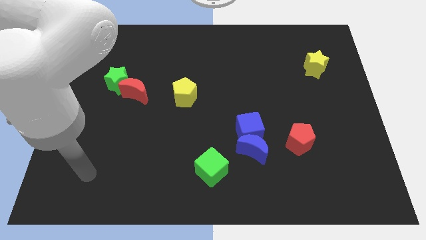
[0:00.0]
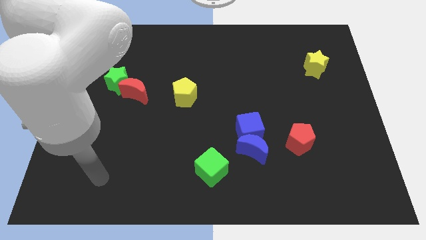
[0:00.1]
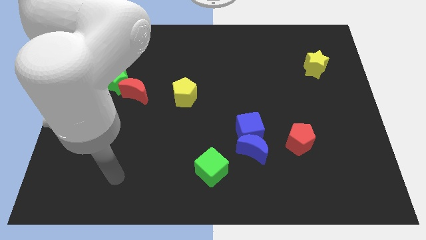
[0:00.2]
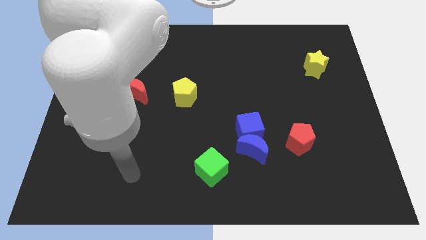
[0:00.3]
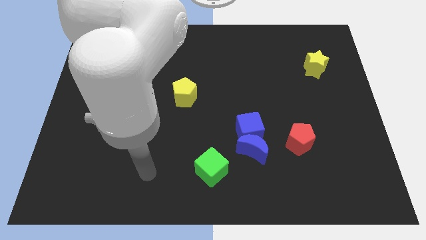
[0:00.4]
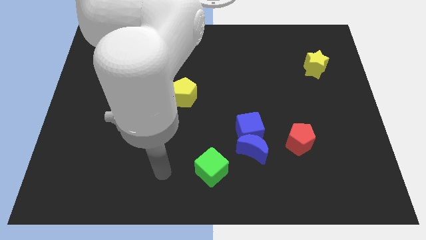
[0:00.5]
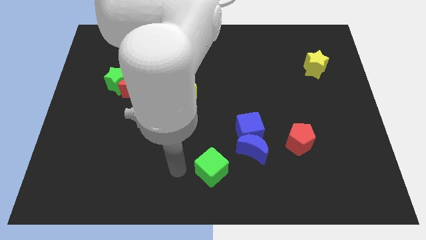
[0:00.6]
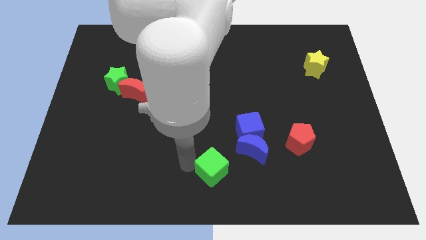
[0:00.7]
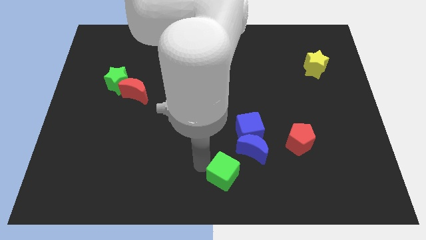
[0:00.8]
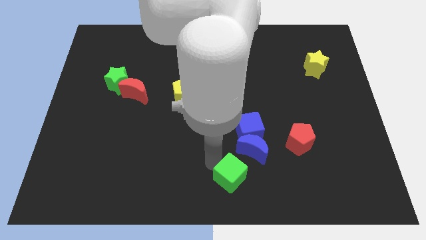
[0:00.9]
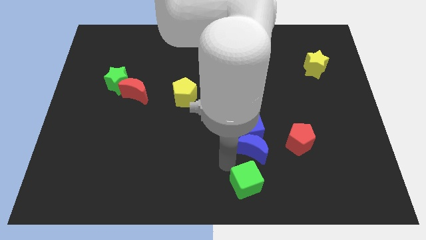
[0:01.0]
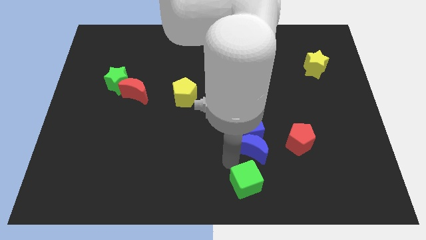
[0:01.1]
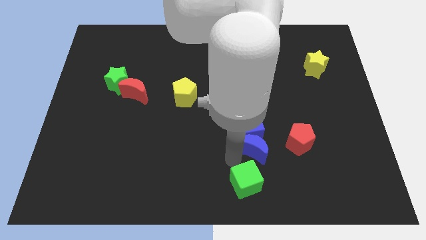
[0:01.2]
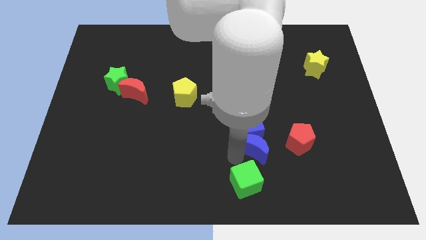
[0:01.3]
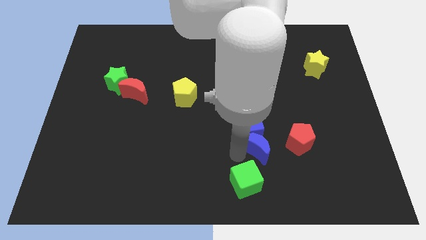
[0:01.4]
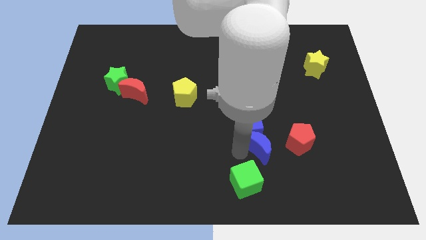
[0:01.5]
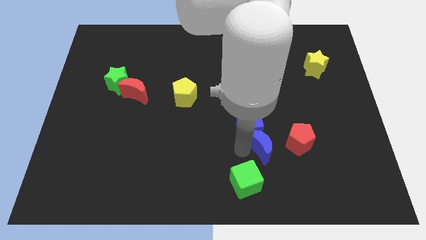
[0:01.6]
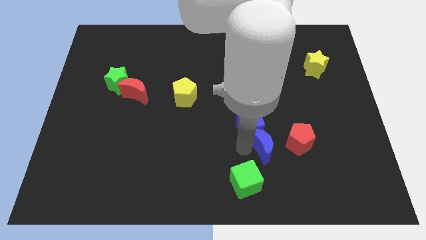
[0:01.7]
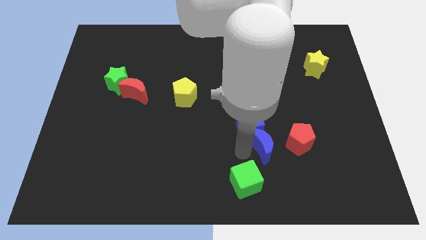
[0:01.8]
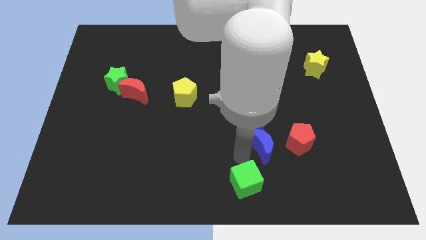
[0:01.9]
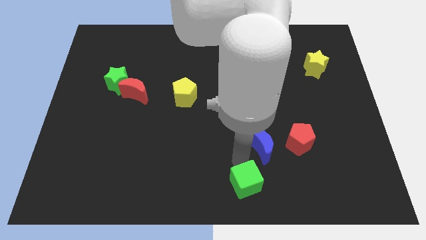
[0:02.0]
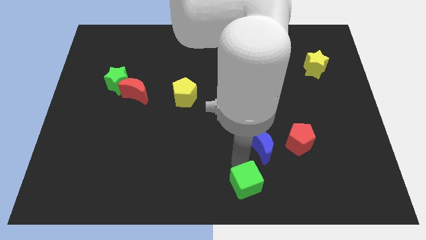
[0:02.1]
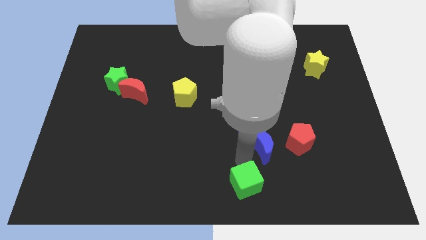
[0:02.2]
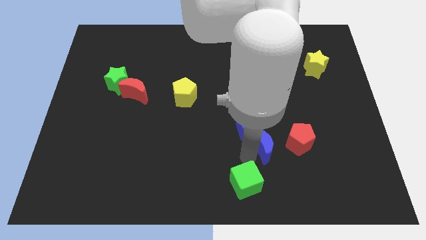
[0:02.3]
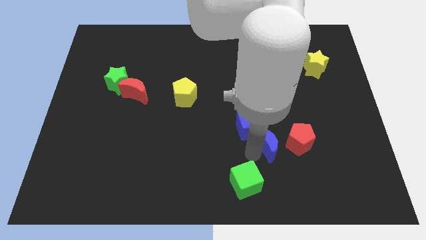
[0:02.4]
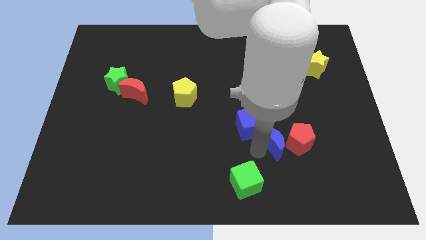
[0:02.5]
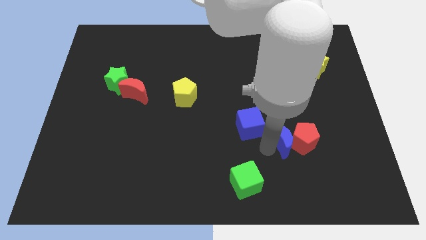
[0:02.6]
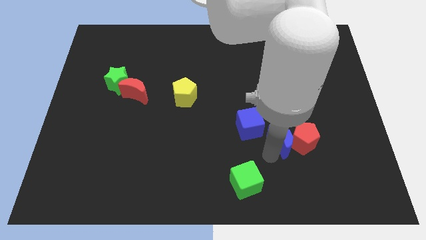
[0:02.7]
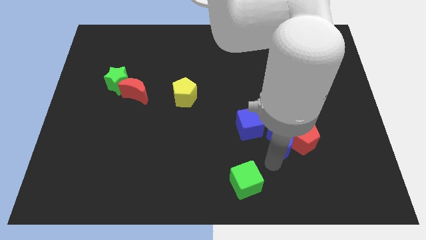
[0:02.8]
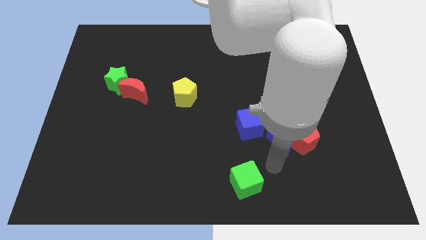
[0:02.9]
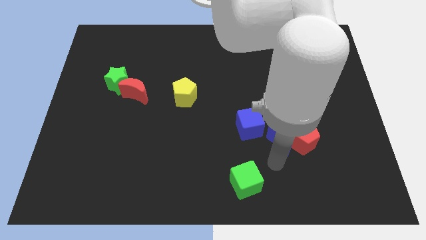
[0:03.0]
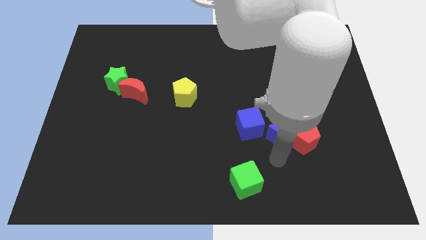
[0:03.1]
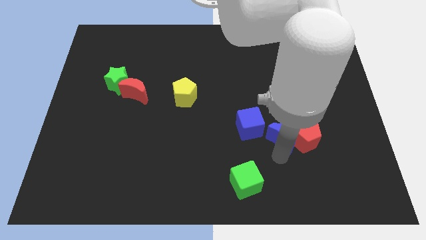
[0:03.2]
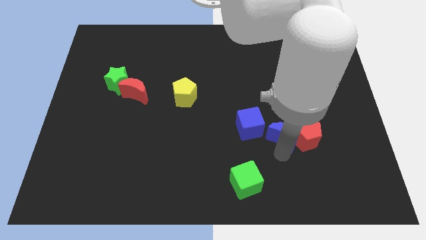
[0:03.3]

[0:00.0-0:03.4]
push the blue moon a little bit upwards and then right

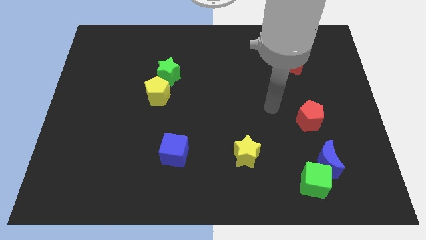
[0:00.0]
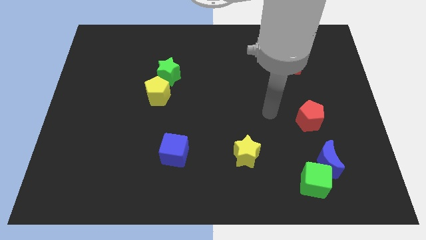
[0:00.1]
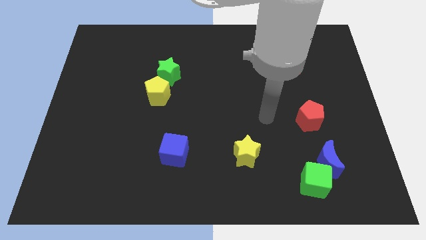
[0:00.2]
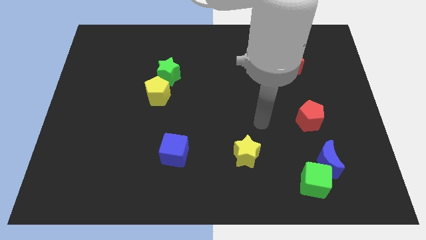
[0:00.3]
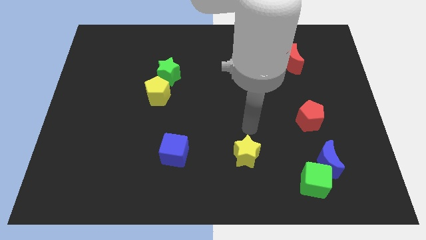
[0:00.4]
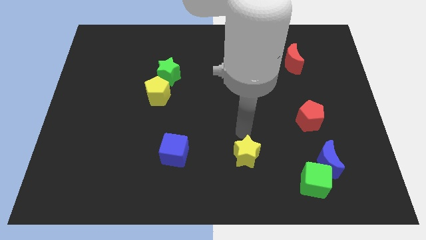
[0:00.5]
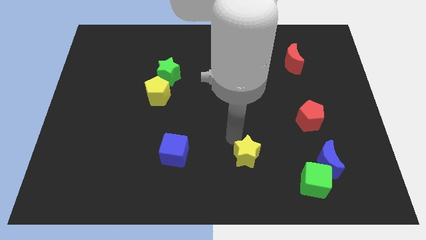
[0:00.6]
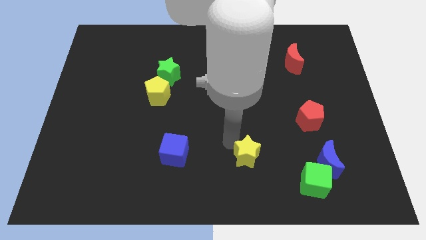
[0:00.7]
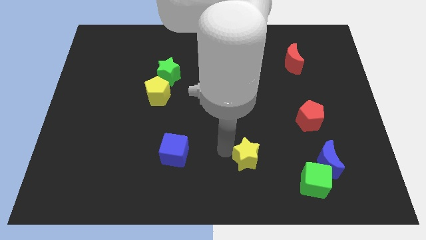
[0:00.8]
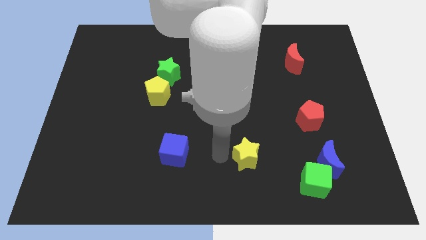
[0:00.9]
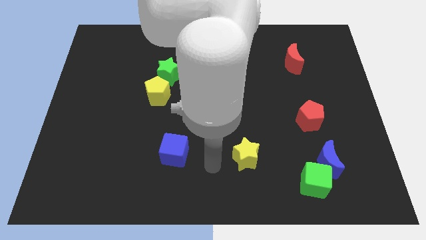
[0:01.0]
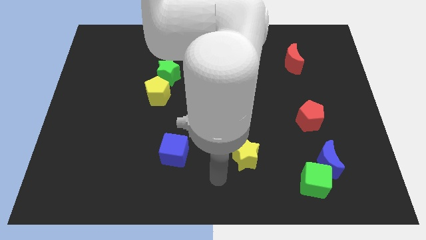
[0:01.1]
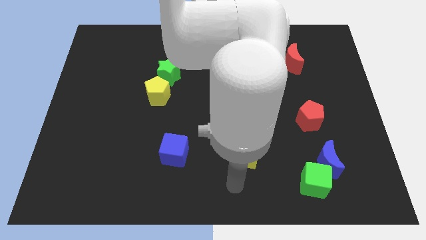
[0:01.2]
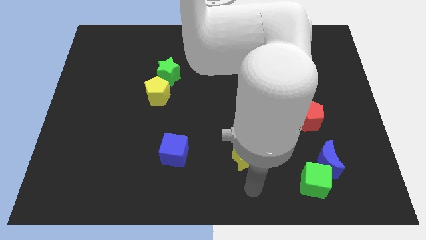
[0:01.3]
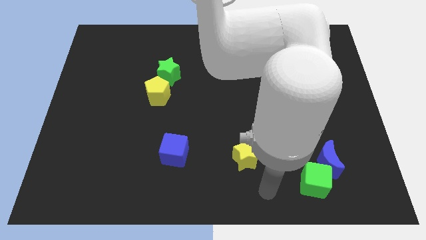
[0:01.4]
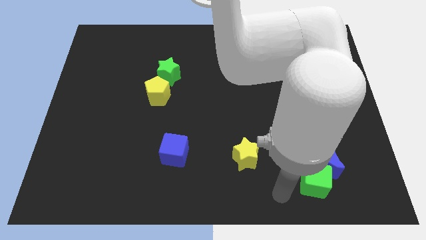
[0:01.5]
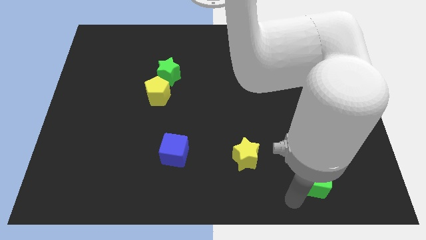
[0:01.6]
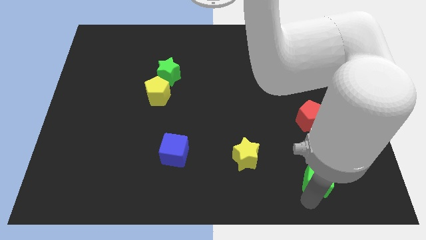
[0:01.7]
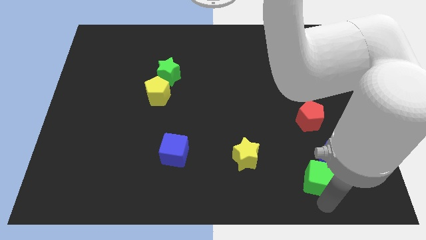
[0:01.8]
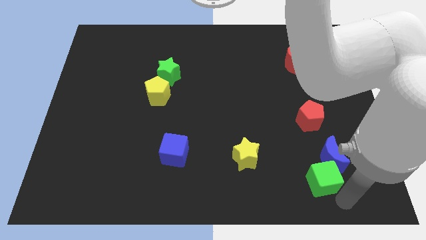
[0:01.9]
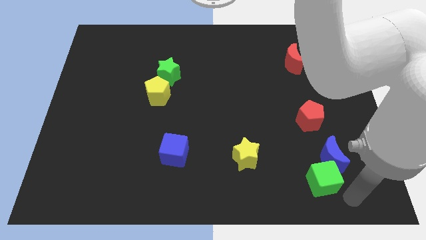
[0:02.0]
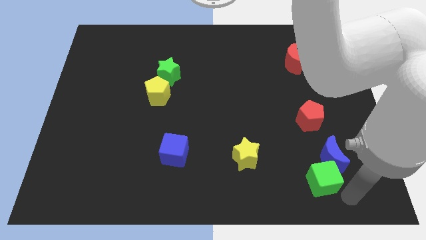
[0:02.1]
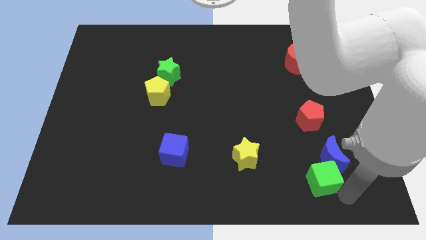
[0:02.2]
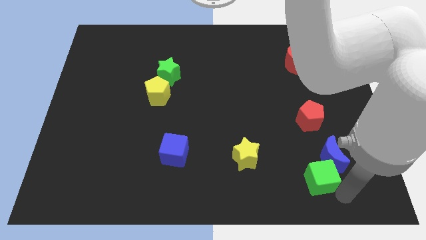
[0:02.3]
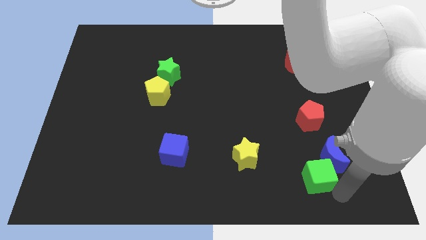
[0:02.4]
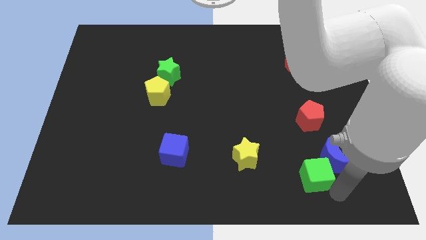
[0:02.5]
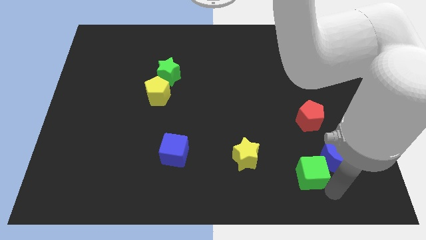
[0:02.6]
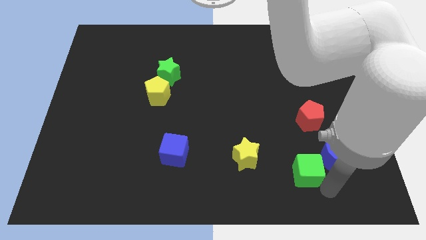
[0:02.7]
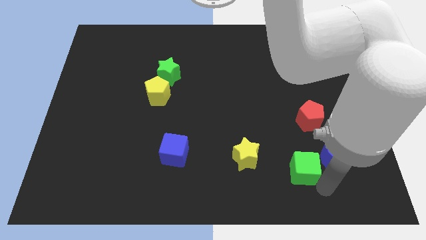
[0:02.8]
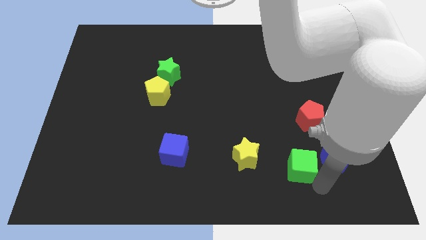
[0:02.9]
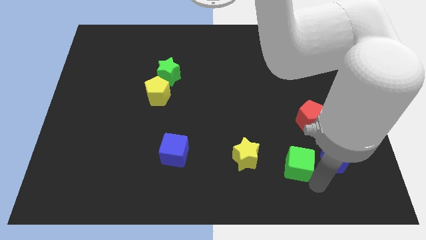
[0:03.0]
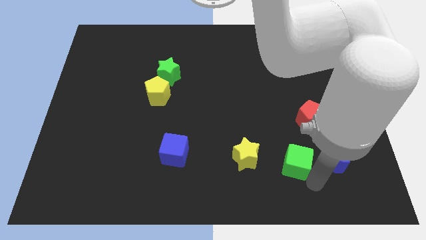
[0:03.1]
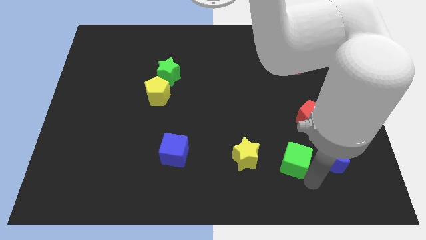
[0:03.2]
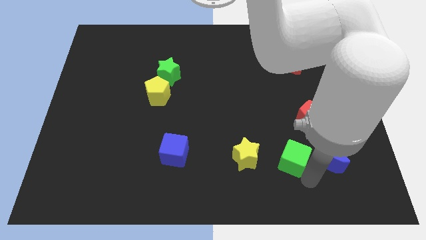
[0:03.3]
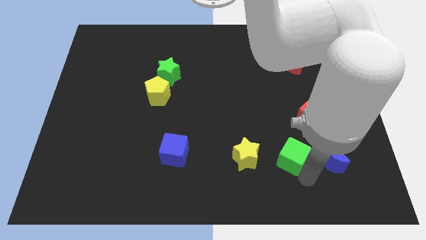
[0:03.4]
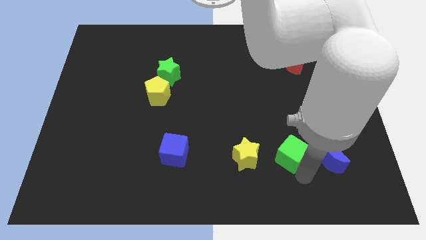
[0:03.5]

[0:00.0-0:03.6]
slightly move the green cube up and then left

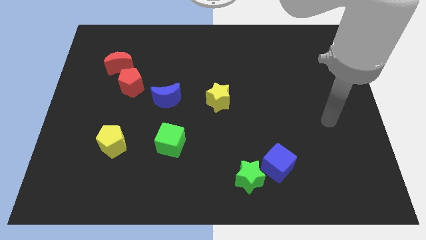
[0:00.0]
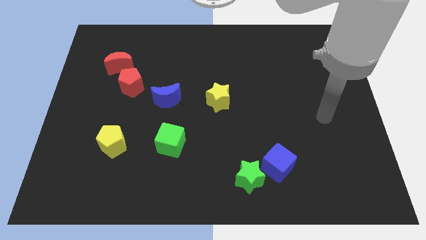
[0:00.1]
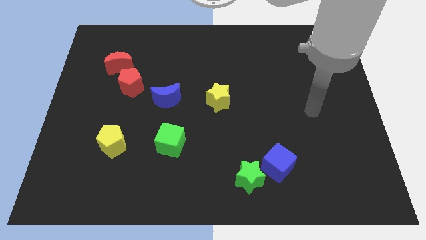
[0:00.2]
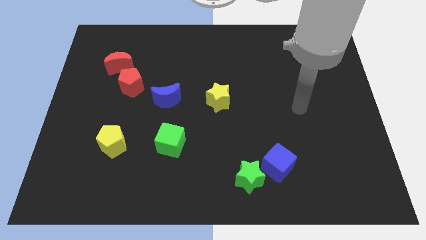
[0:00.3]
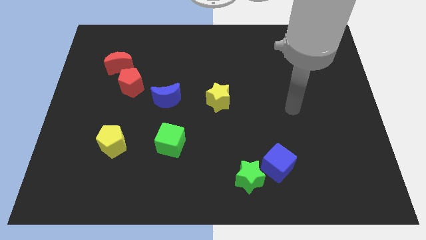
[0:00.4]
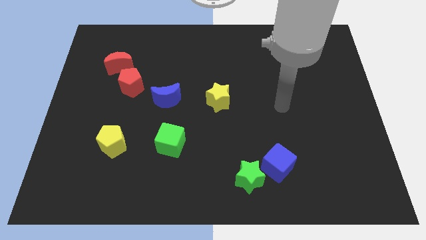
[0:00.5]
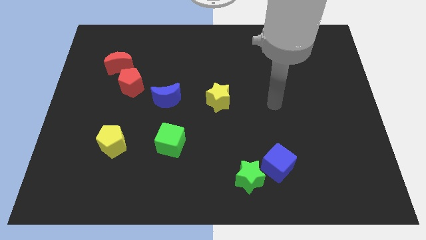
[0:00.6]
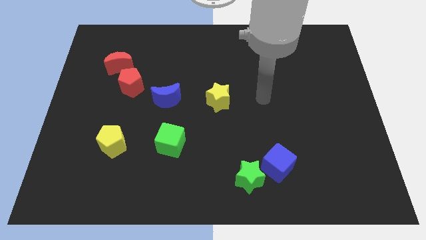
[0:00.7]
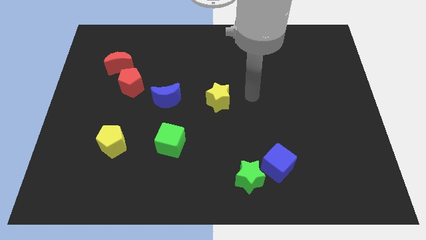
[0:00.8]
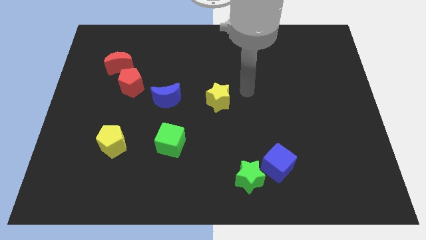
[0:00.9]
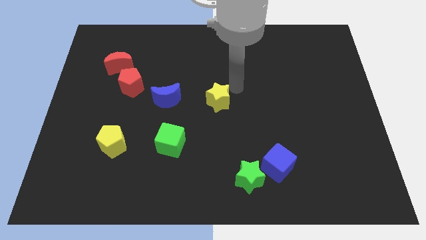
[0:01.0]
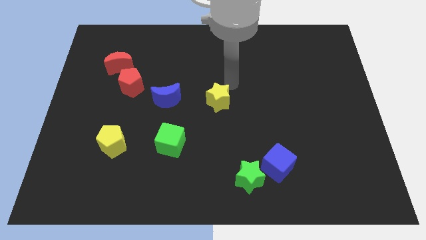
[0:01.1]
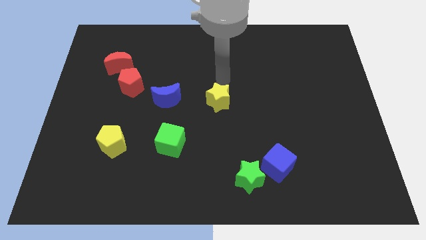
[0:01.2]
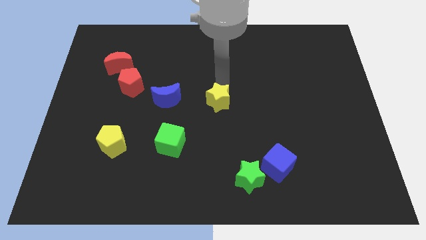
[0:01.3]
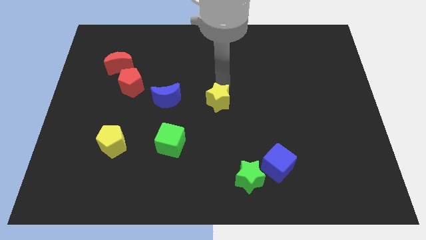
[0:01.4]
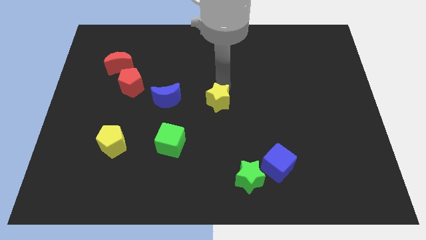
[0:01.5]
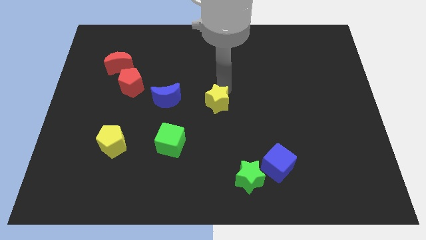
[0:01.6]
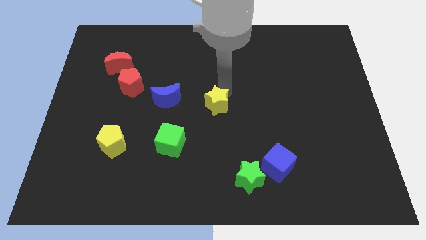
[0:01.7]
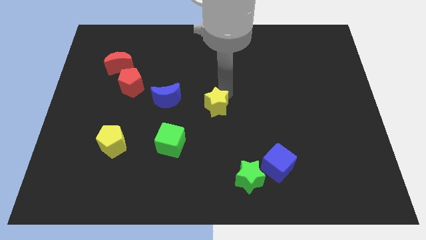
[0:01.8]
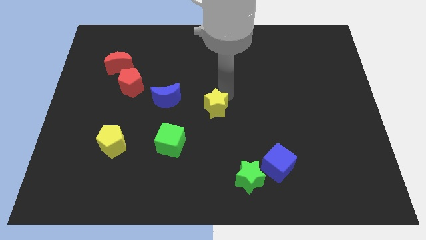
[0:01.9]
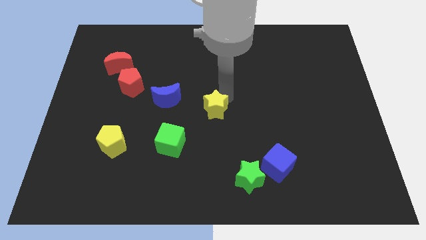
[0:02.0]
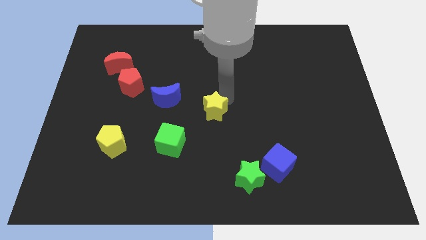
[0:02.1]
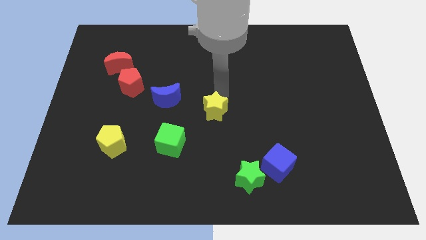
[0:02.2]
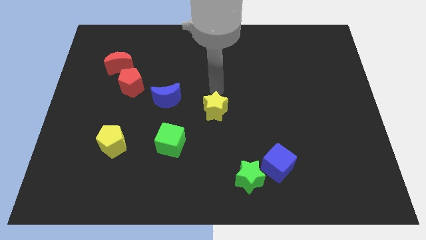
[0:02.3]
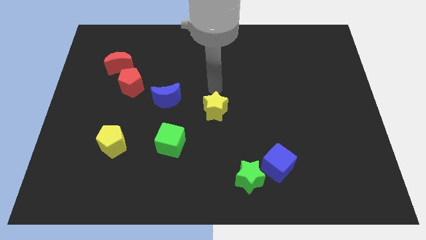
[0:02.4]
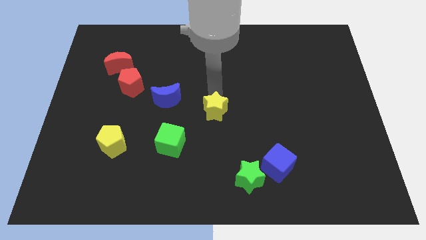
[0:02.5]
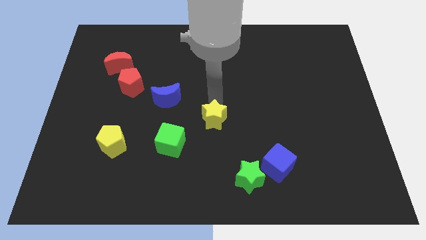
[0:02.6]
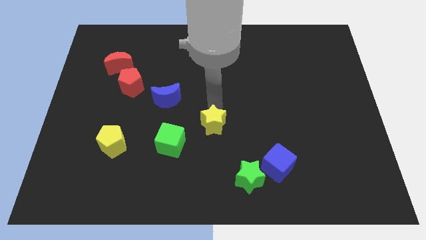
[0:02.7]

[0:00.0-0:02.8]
slightly slide the yellow star down
